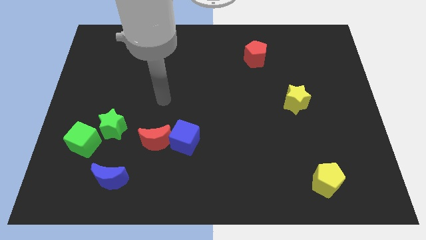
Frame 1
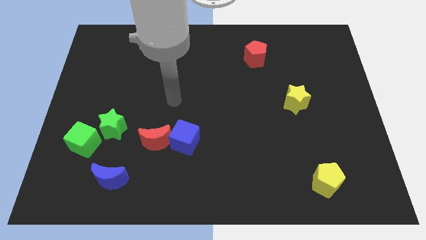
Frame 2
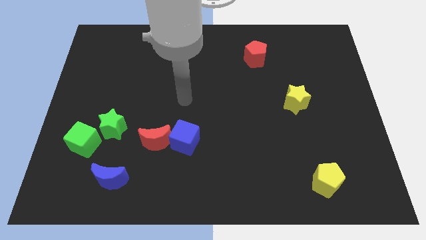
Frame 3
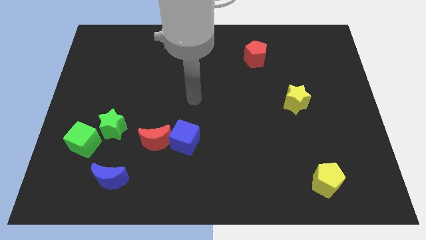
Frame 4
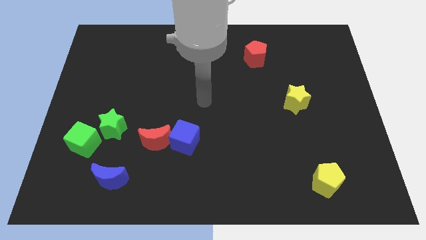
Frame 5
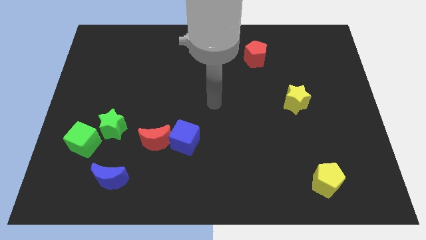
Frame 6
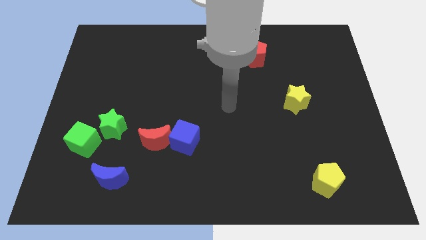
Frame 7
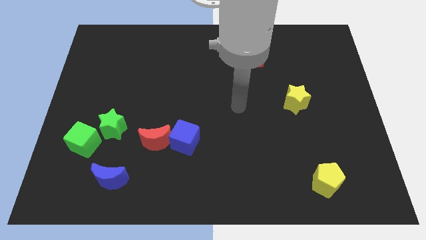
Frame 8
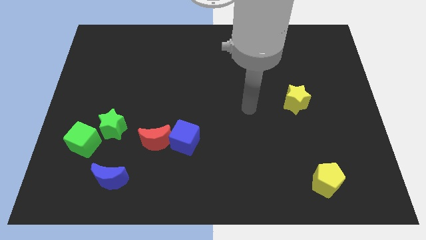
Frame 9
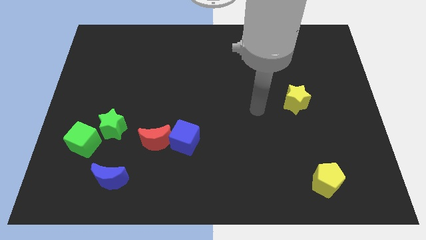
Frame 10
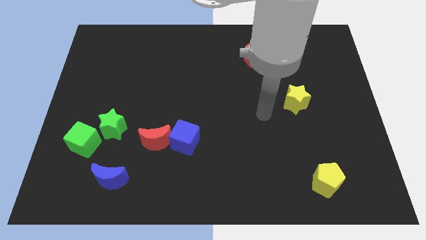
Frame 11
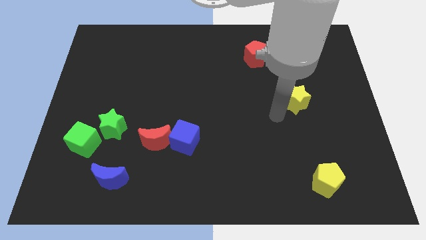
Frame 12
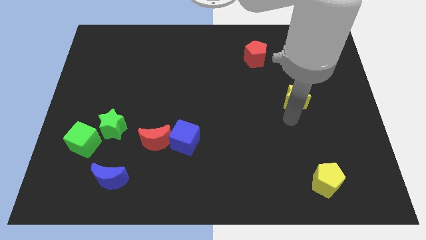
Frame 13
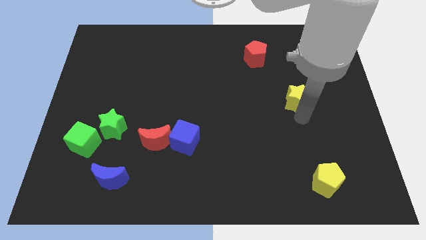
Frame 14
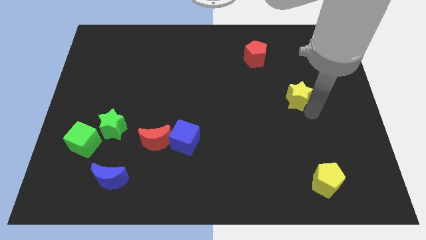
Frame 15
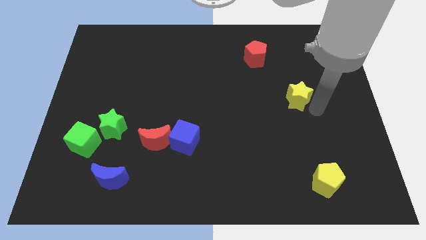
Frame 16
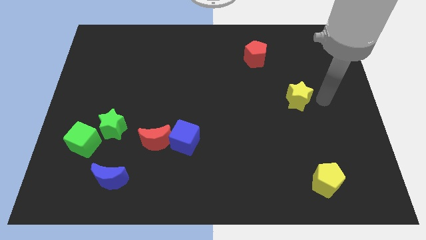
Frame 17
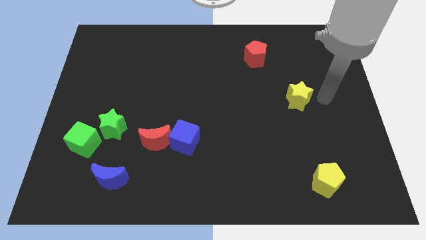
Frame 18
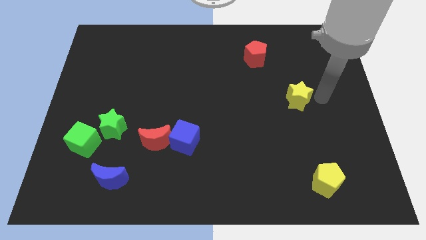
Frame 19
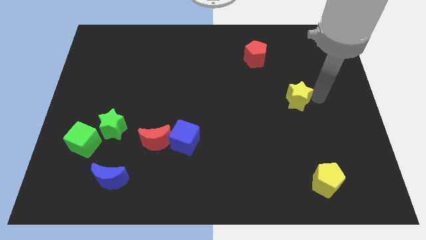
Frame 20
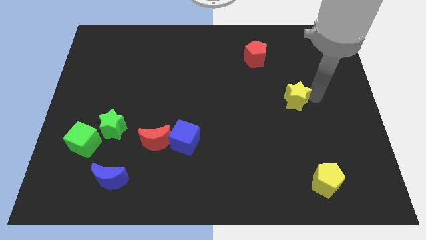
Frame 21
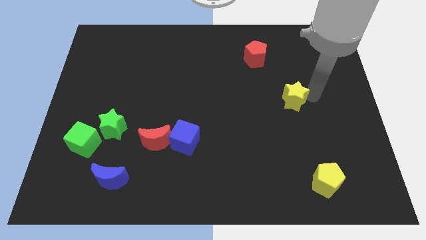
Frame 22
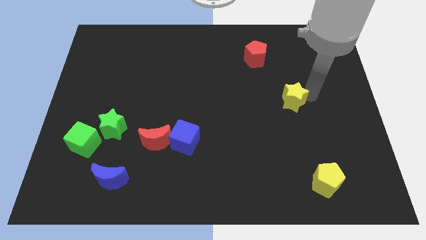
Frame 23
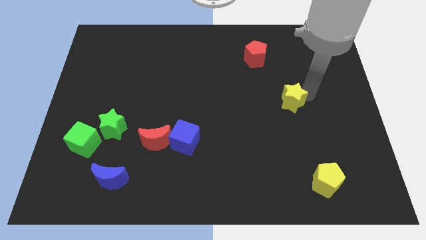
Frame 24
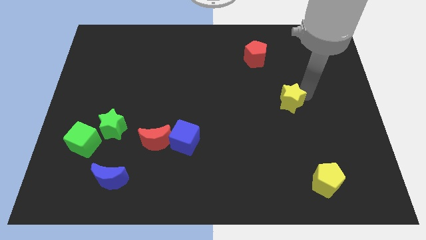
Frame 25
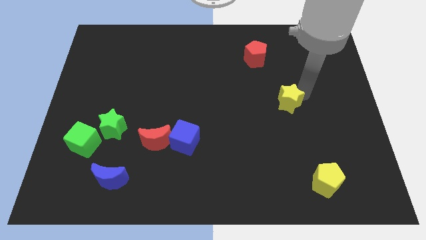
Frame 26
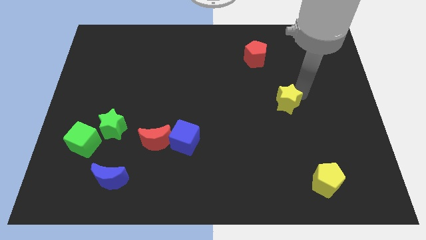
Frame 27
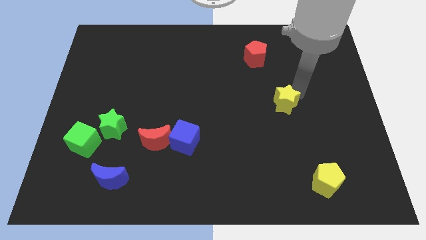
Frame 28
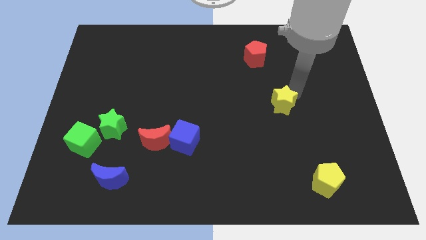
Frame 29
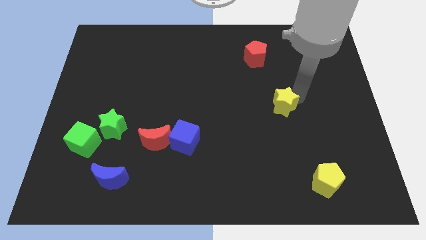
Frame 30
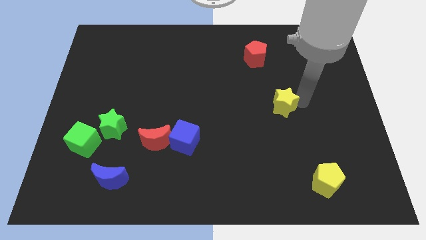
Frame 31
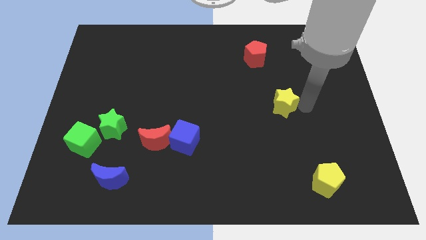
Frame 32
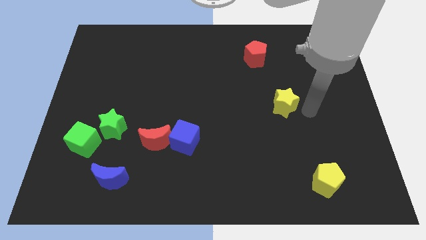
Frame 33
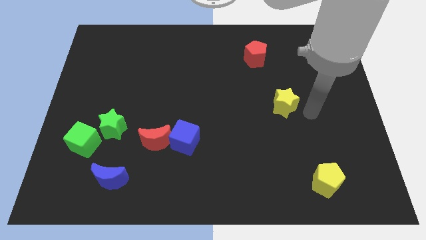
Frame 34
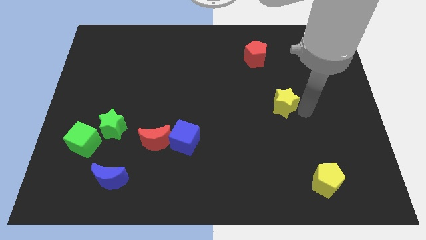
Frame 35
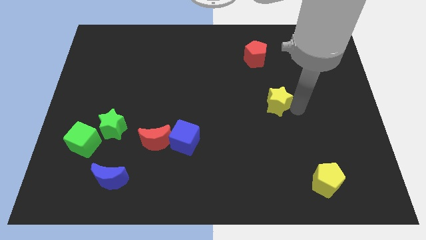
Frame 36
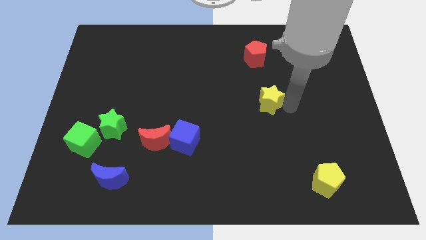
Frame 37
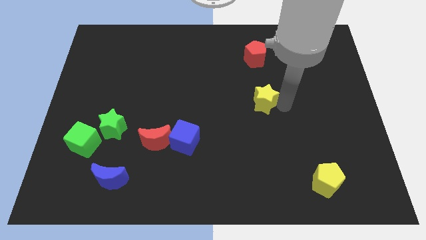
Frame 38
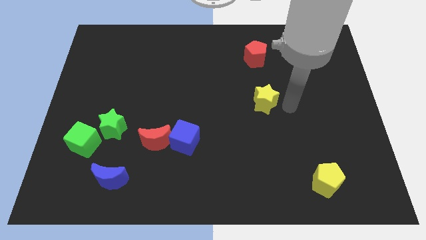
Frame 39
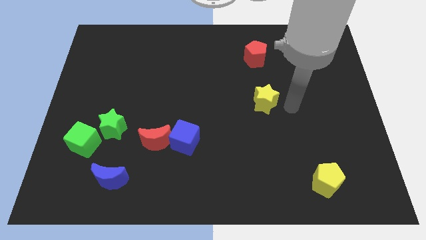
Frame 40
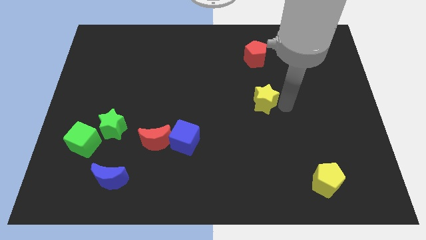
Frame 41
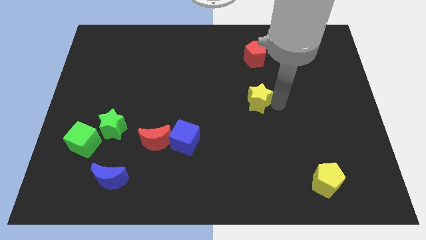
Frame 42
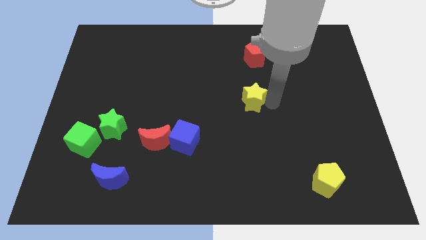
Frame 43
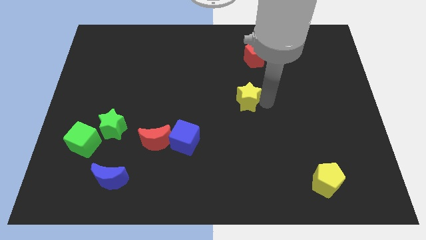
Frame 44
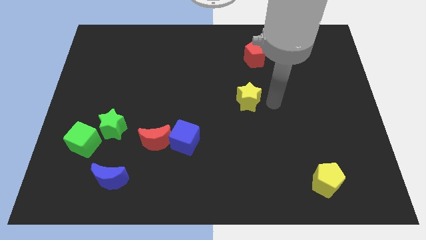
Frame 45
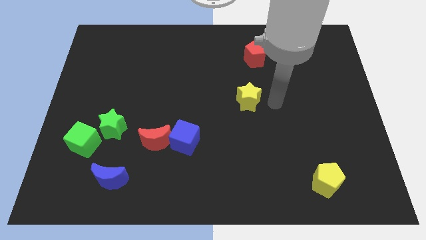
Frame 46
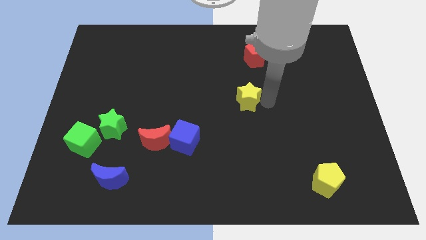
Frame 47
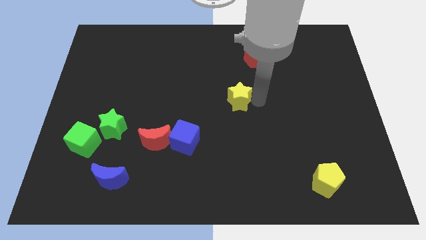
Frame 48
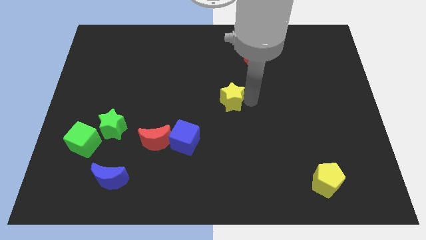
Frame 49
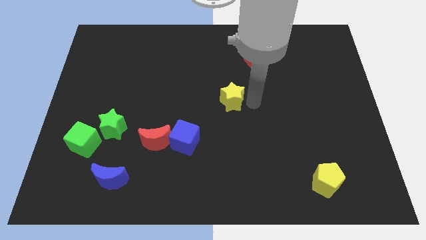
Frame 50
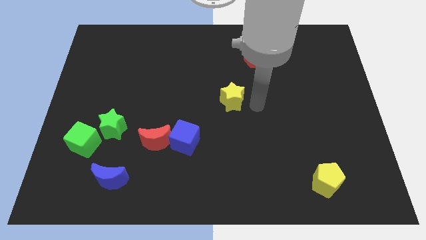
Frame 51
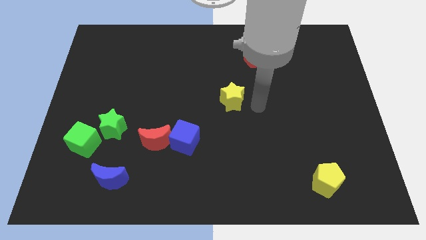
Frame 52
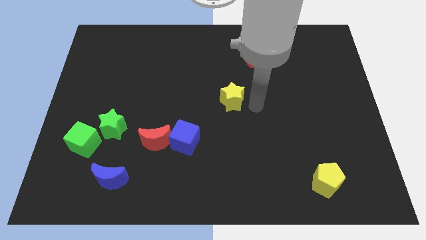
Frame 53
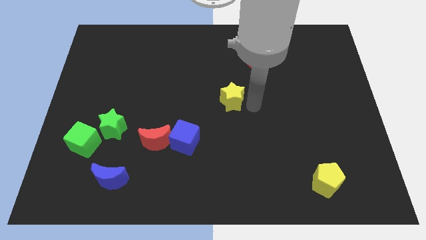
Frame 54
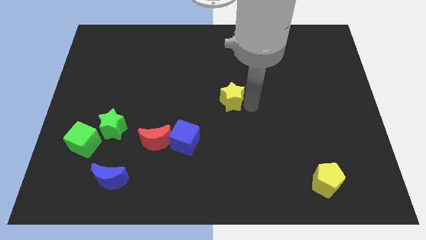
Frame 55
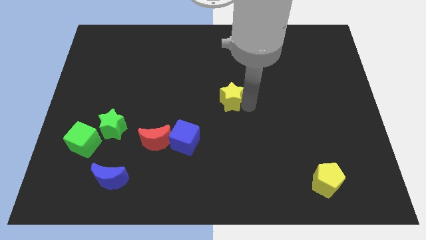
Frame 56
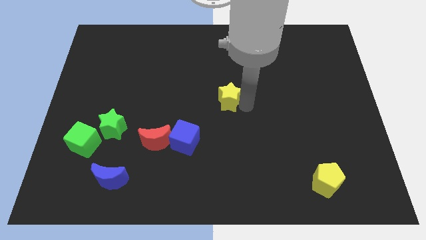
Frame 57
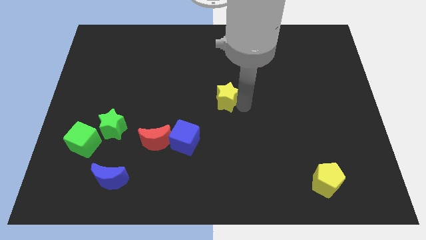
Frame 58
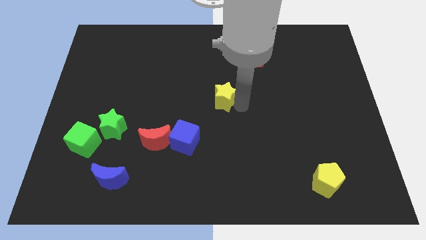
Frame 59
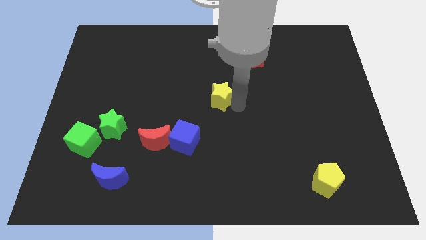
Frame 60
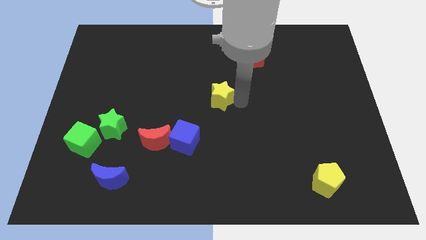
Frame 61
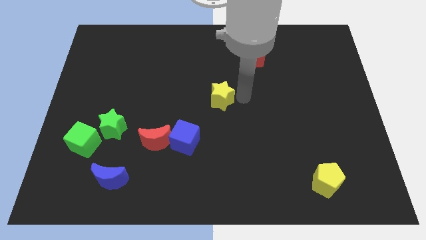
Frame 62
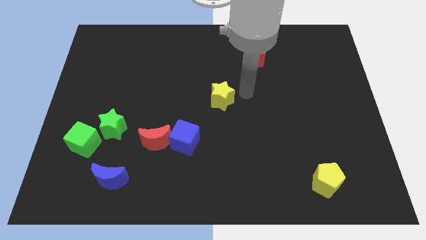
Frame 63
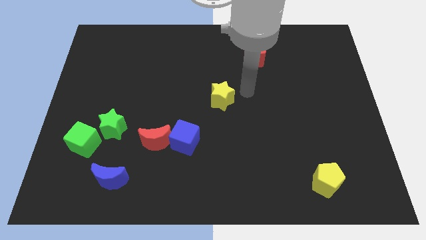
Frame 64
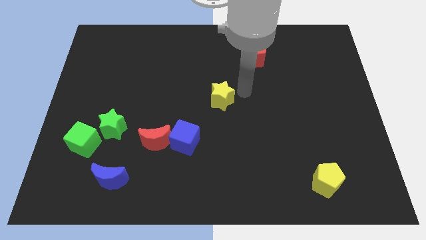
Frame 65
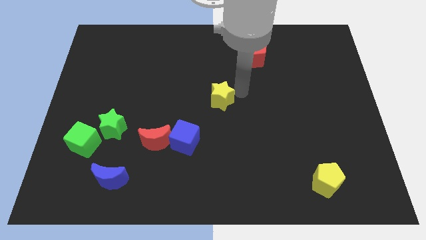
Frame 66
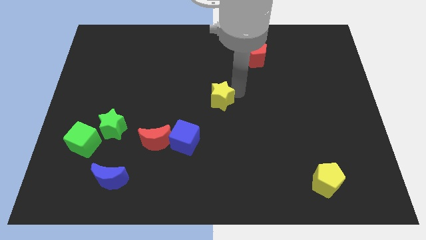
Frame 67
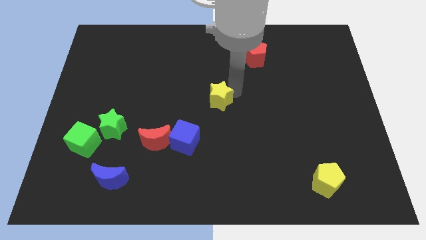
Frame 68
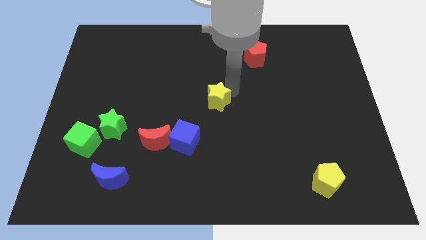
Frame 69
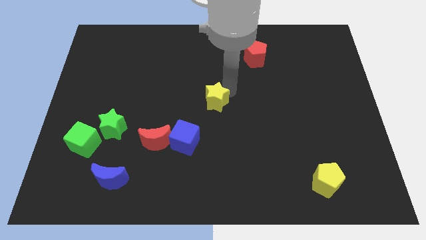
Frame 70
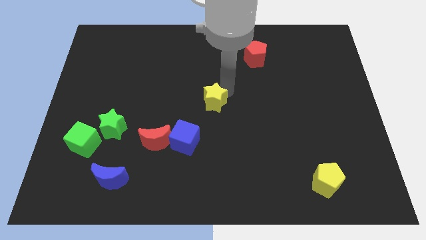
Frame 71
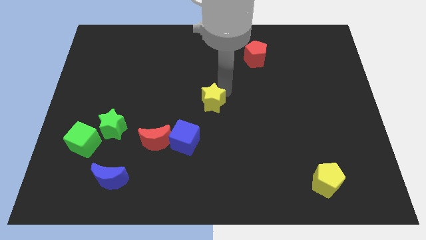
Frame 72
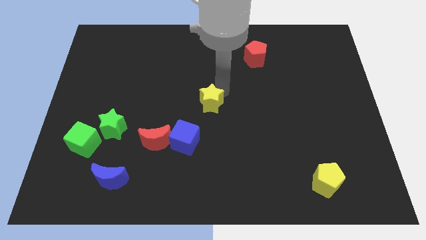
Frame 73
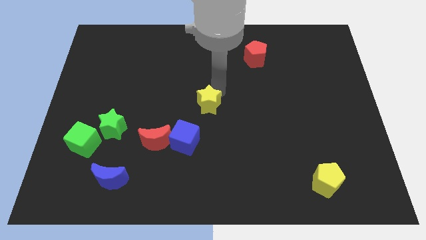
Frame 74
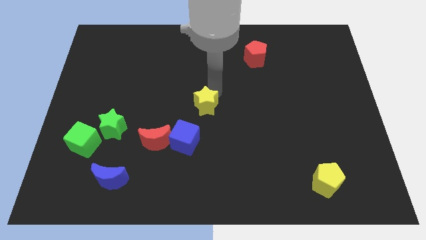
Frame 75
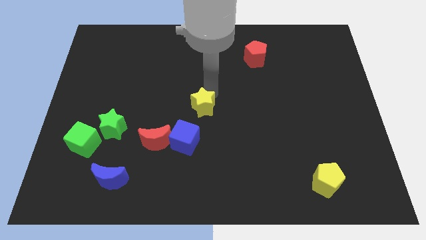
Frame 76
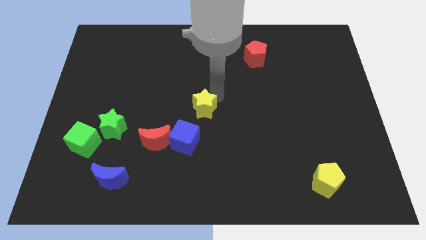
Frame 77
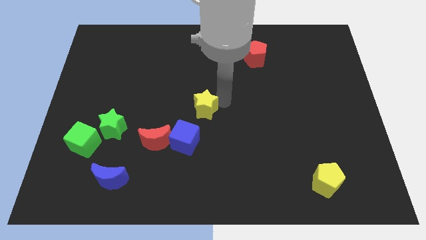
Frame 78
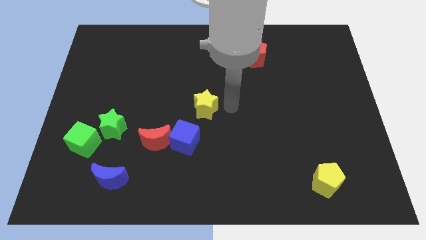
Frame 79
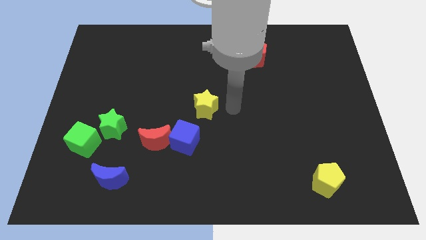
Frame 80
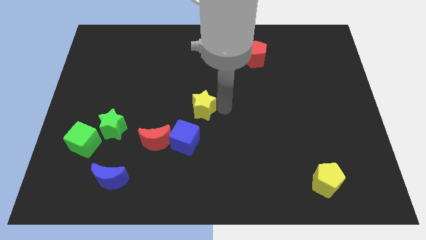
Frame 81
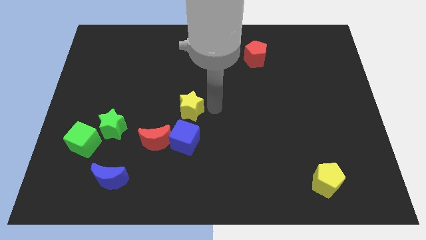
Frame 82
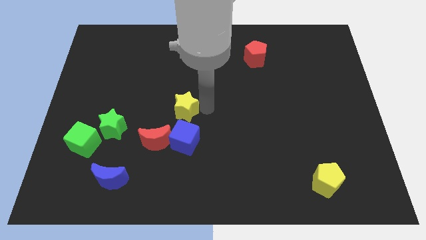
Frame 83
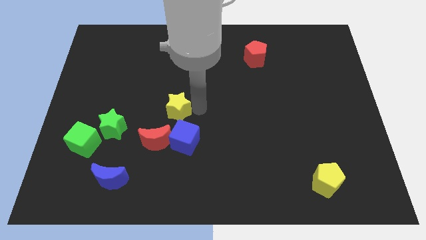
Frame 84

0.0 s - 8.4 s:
push the yellow star above the red moon
